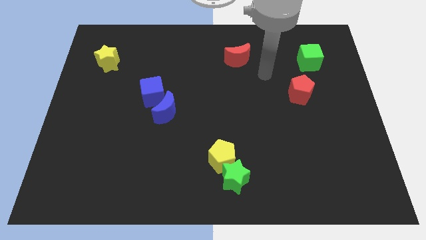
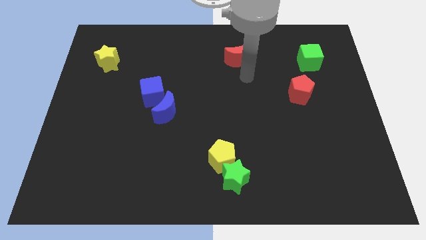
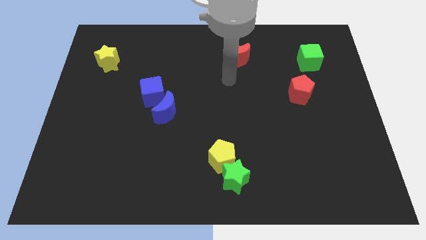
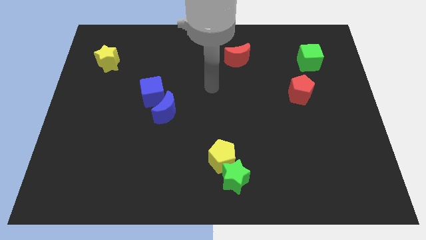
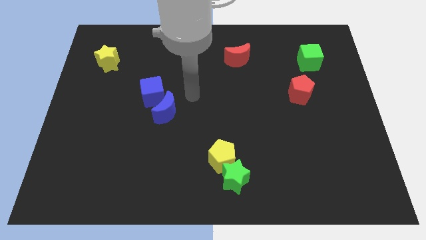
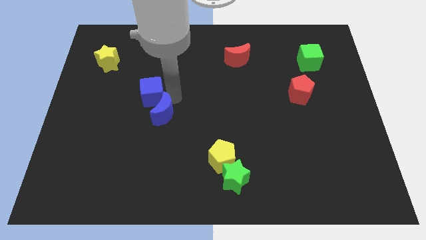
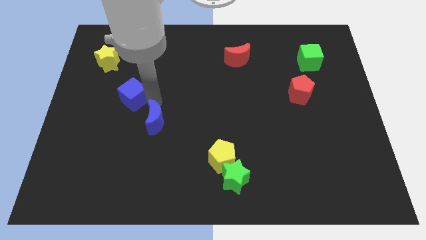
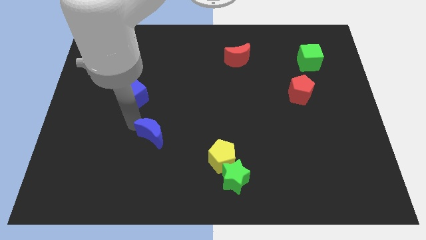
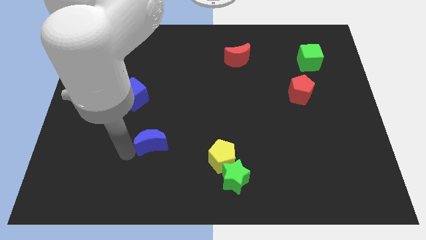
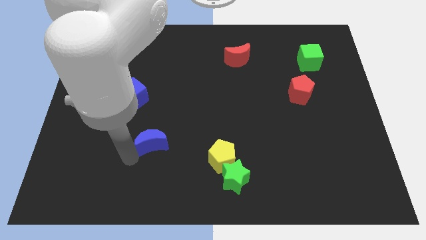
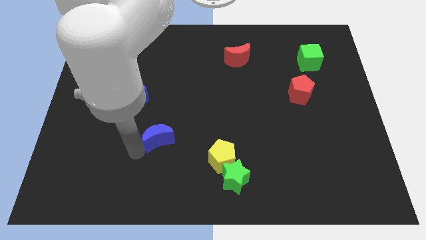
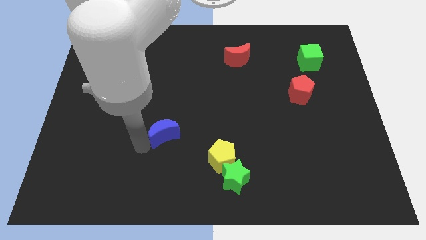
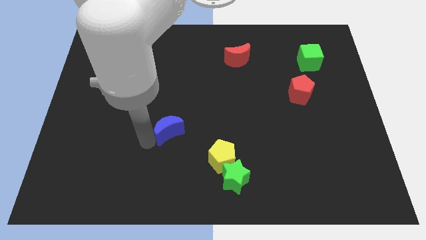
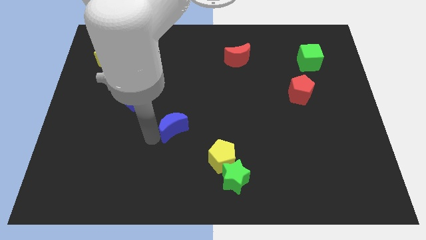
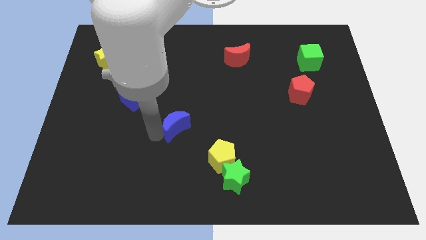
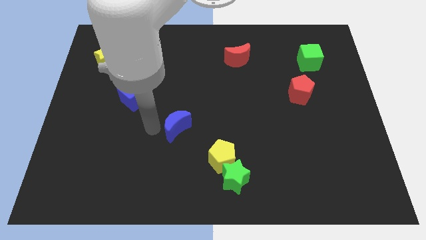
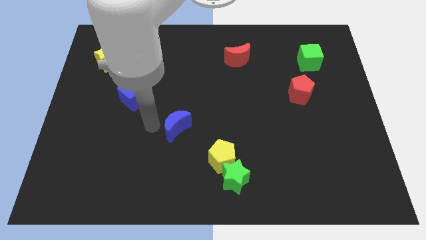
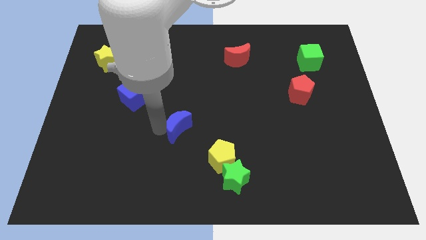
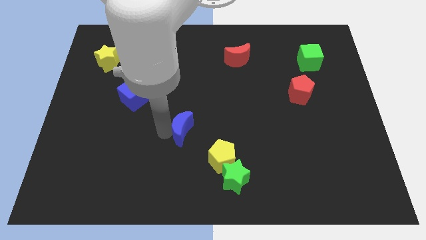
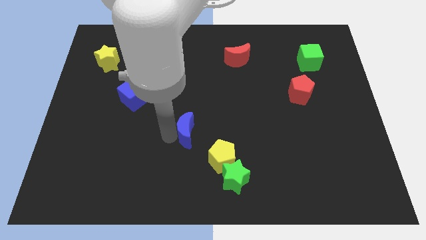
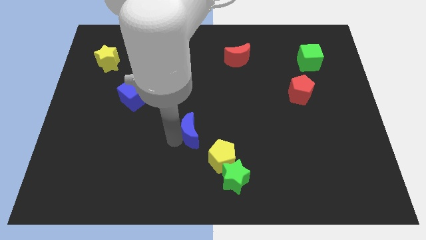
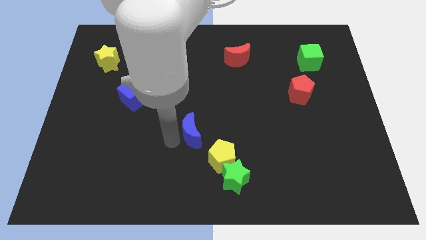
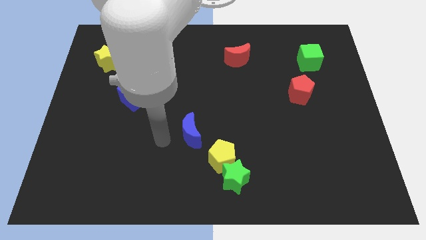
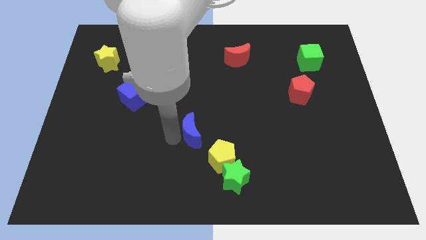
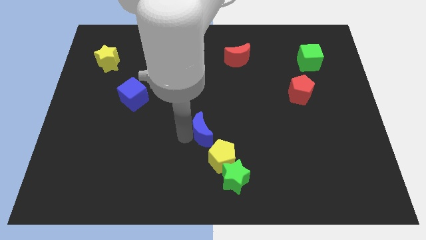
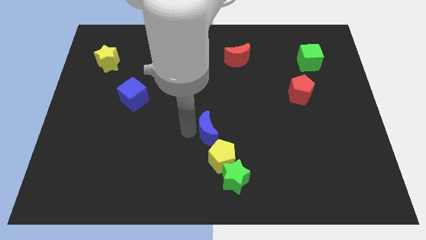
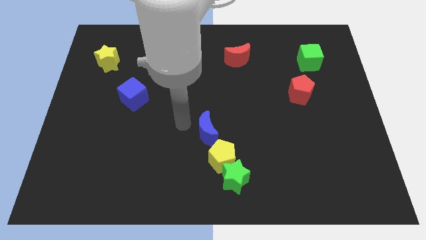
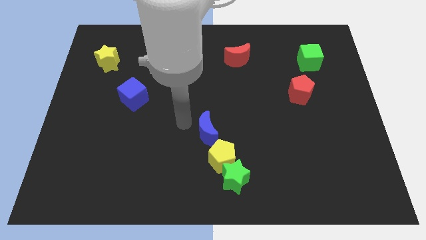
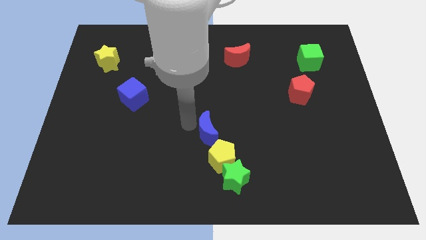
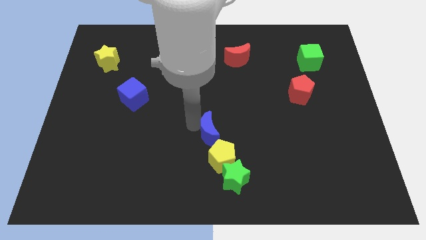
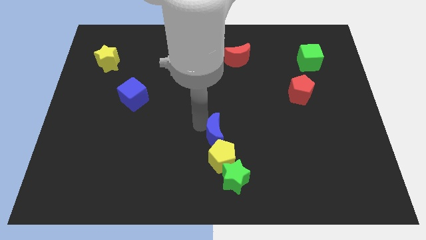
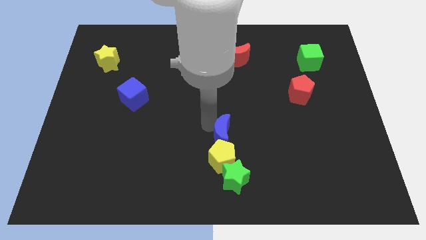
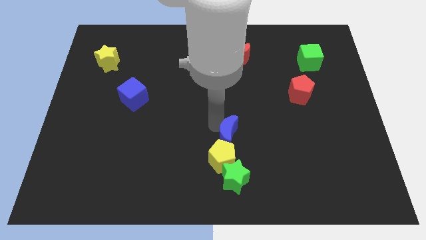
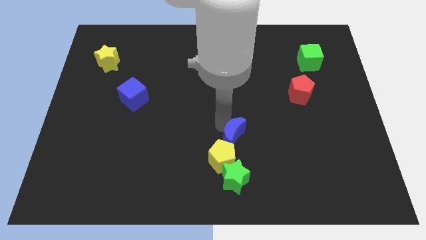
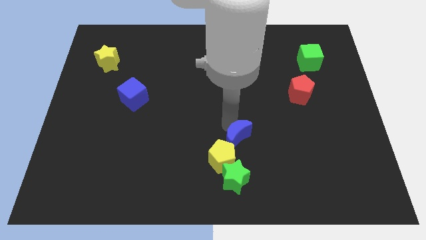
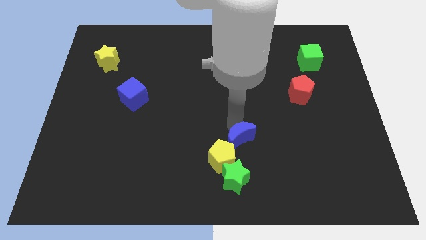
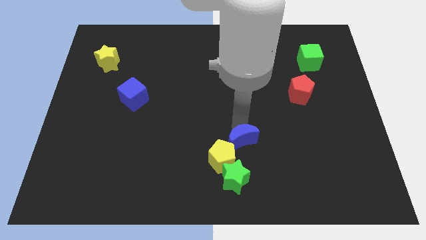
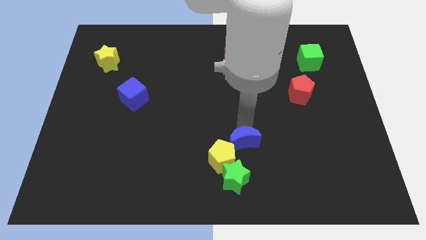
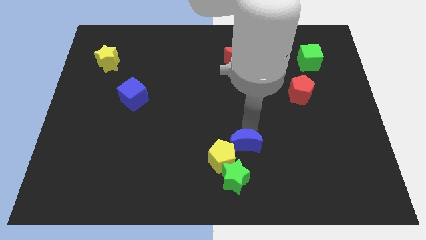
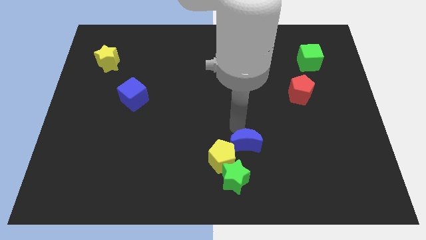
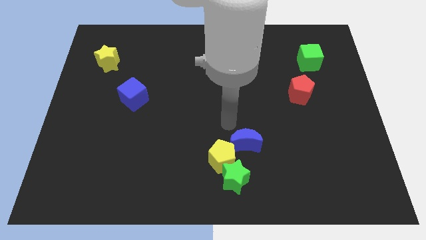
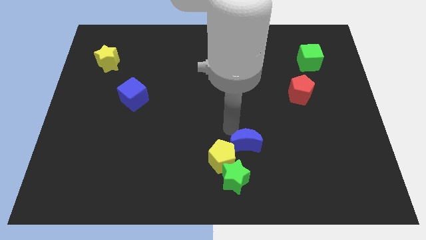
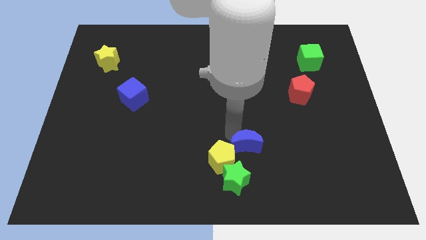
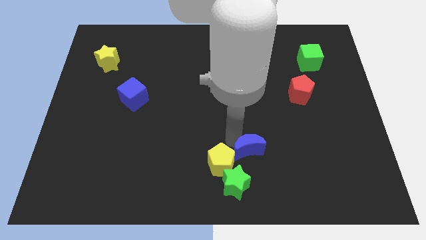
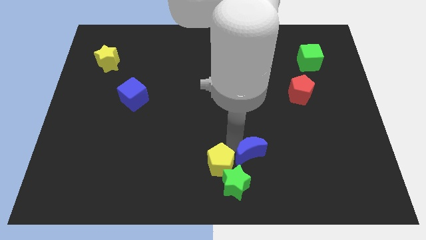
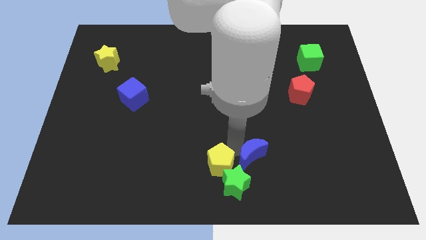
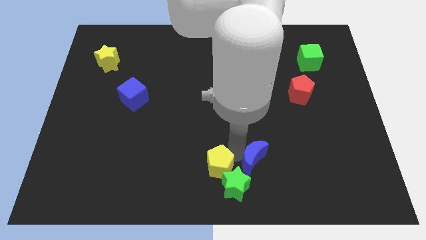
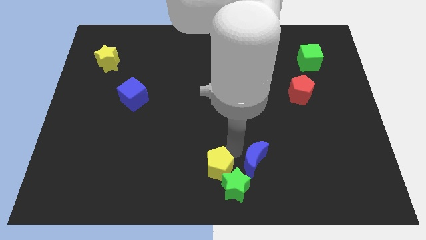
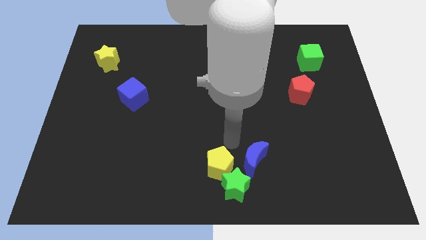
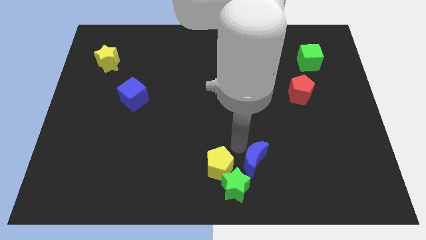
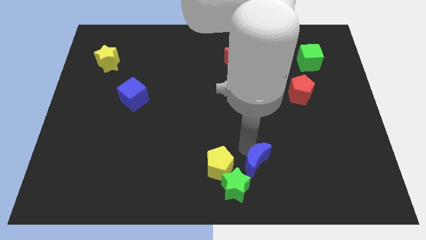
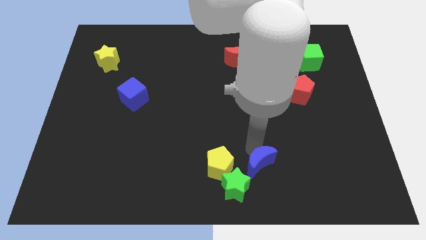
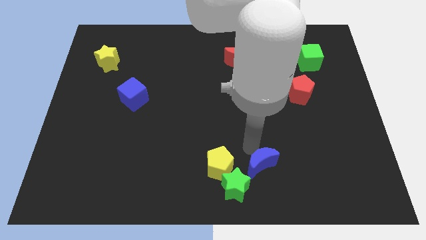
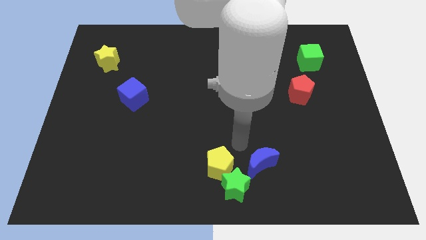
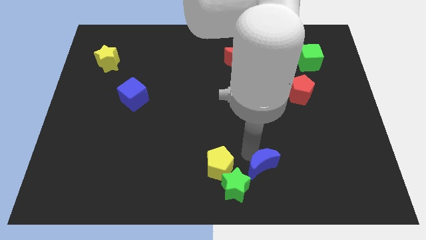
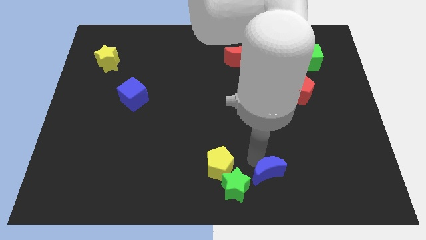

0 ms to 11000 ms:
move the blue moon to the right side of the green star

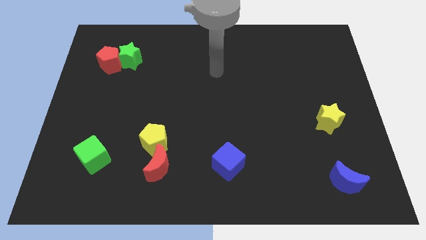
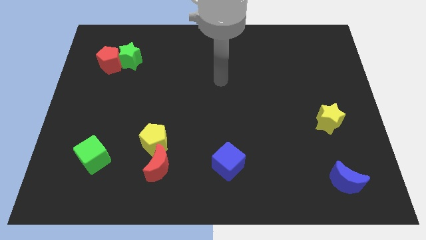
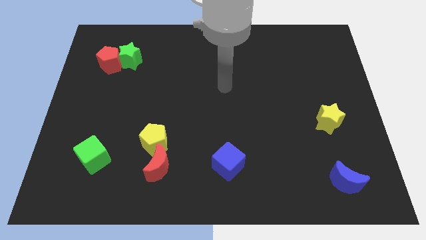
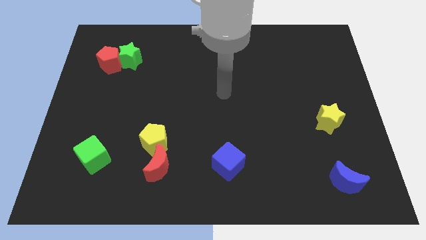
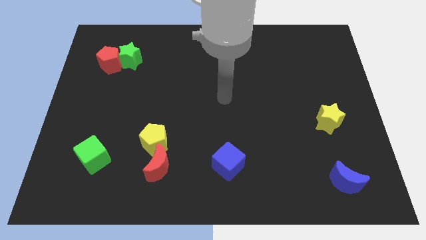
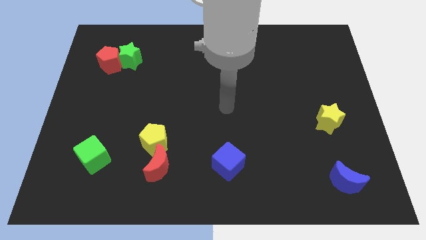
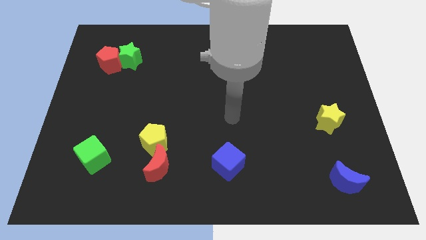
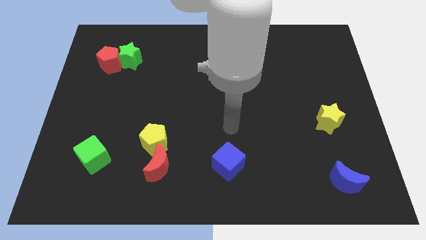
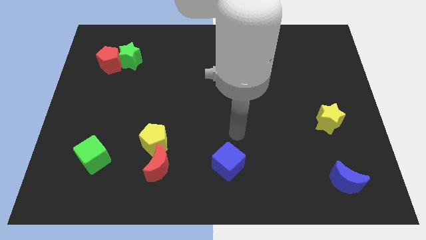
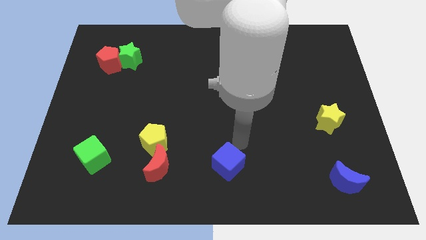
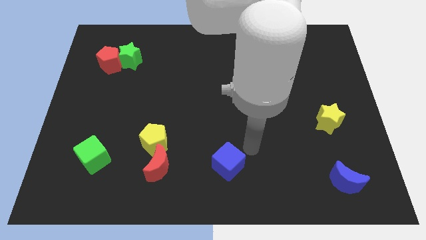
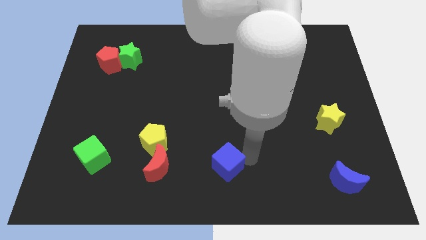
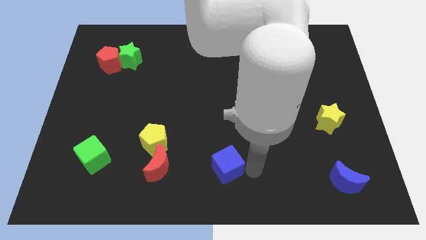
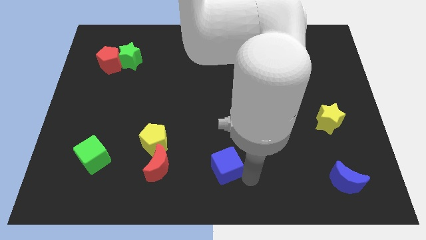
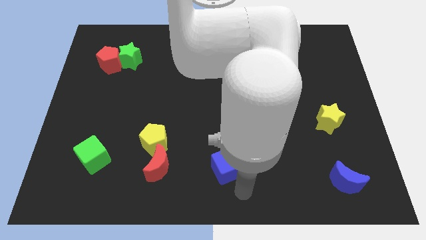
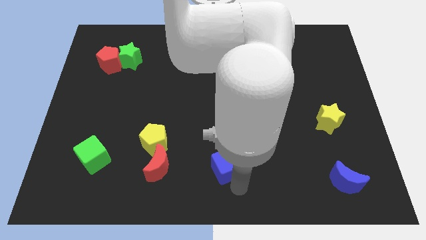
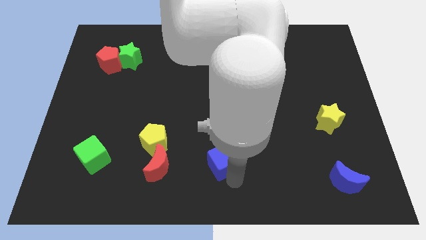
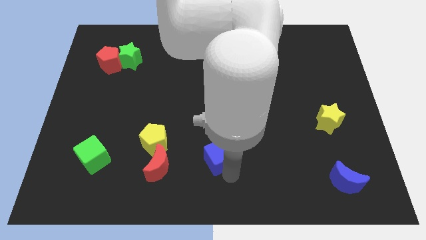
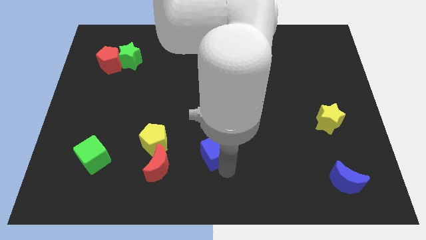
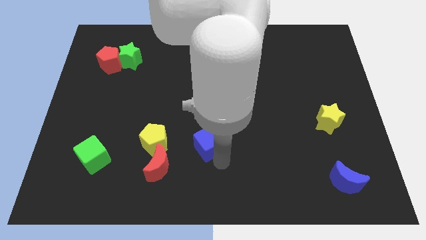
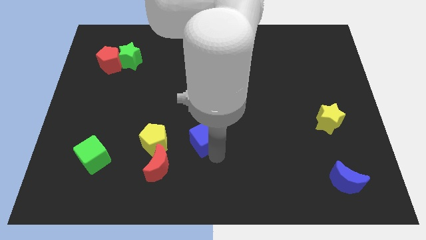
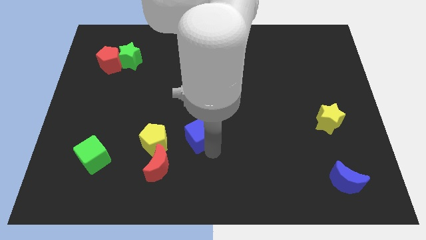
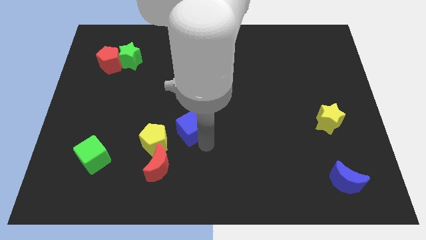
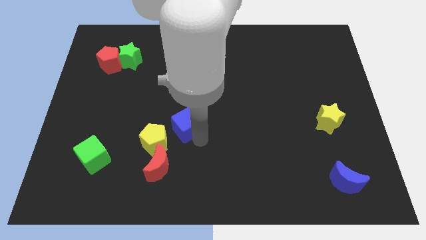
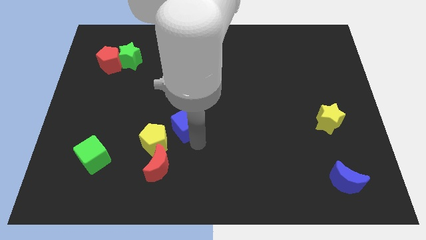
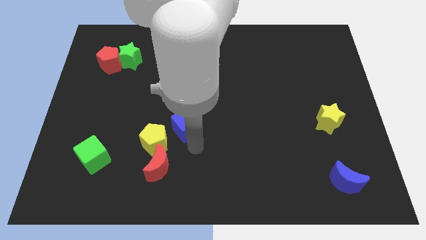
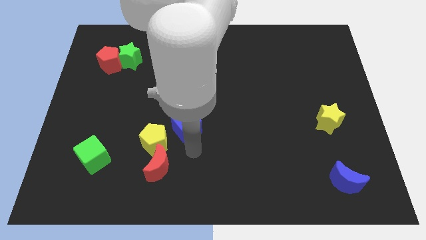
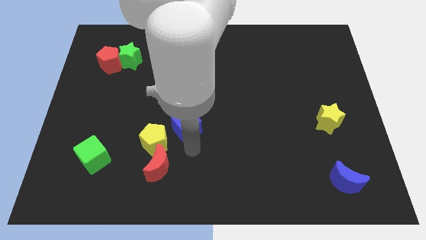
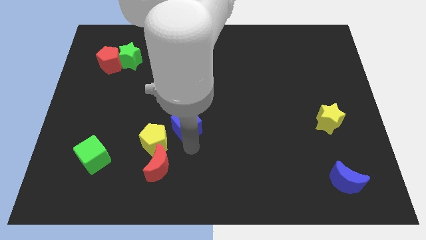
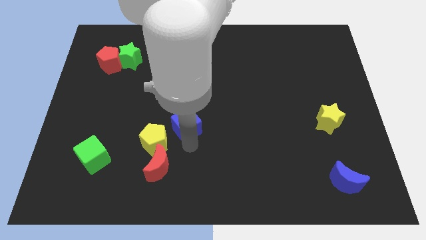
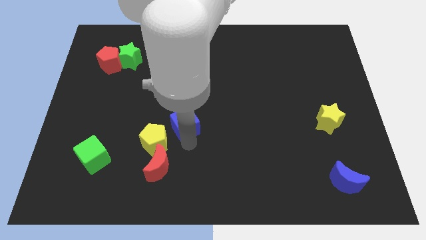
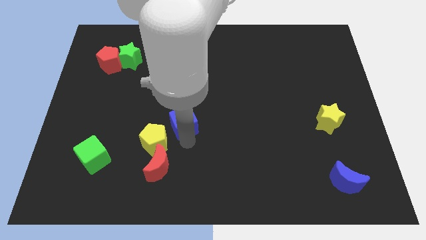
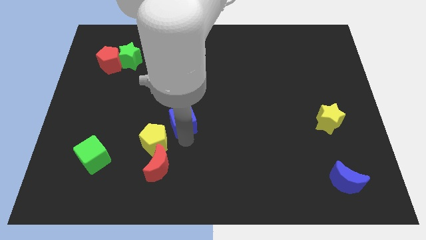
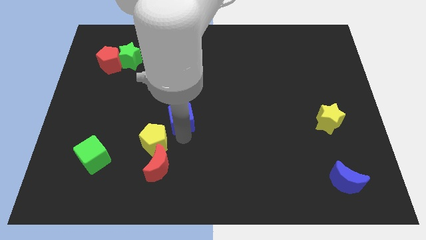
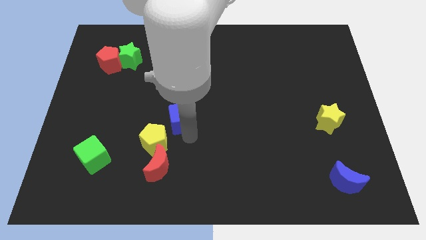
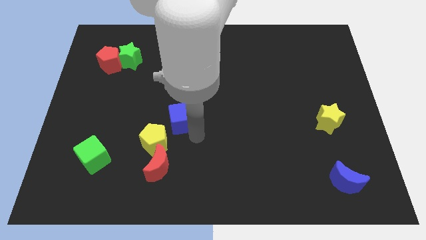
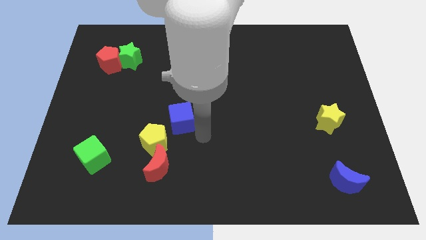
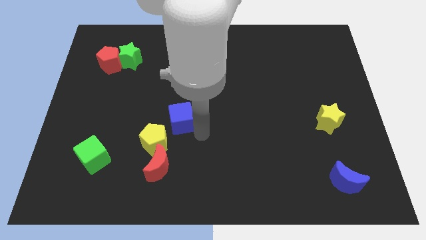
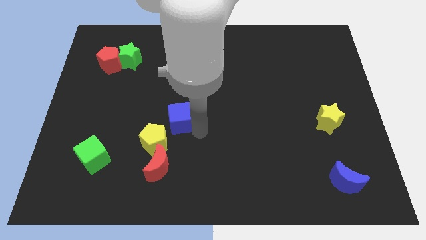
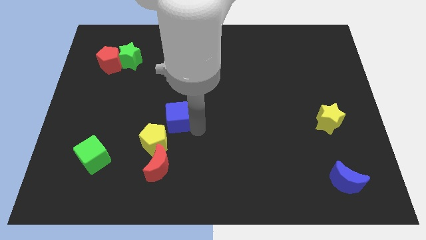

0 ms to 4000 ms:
slide the blue cube to the top side of the yellow pentagon
